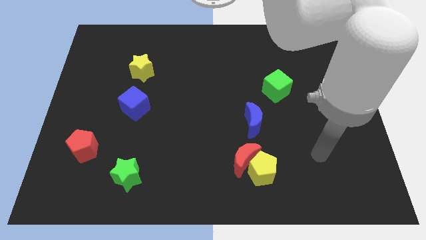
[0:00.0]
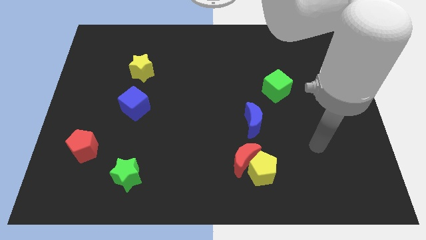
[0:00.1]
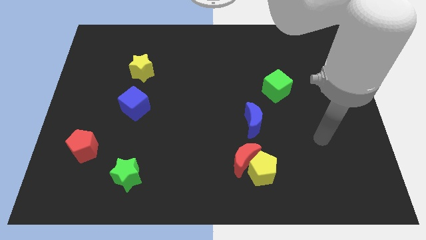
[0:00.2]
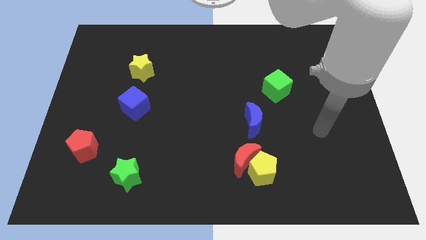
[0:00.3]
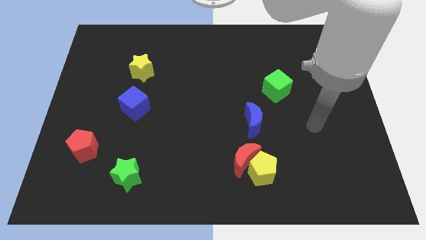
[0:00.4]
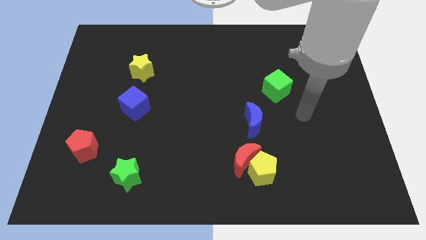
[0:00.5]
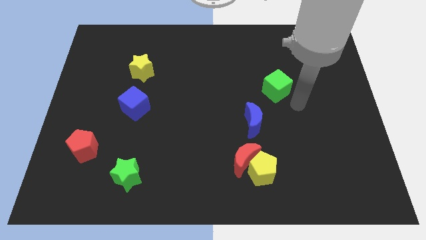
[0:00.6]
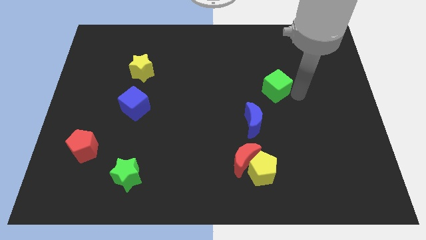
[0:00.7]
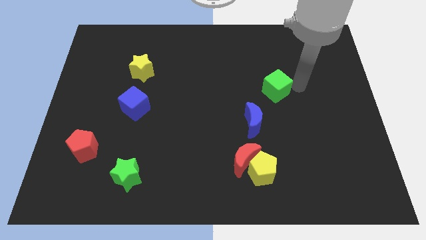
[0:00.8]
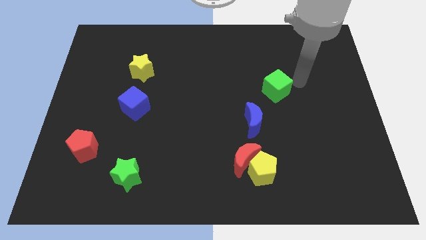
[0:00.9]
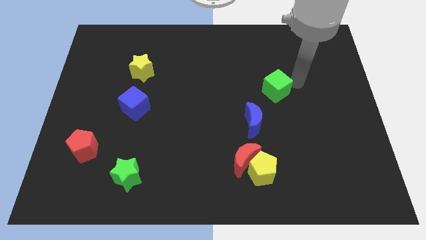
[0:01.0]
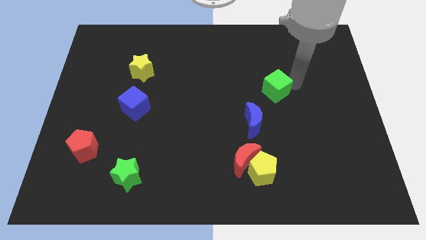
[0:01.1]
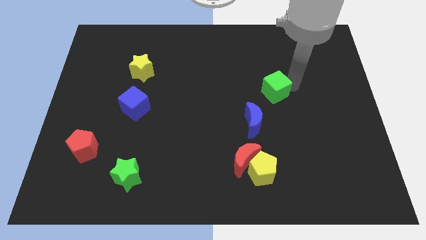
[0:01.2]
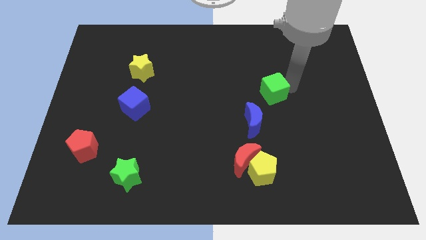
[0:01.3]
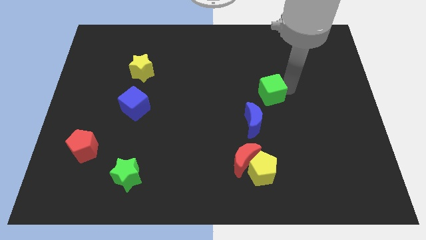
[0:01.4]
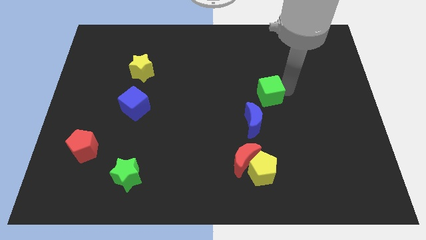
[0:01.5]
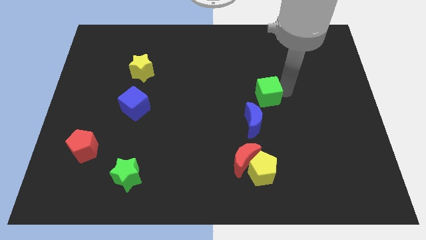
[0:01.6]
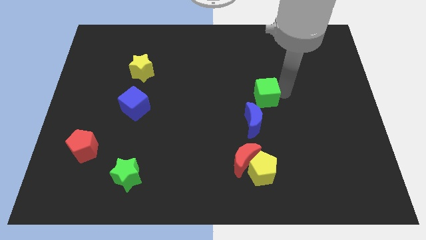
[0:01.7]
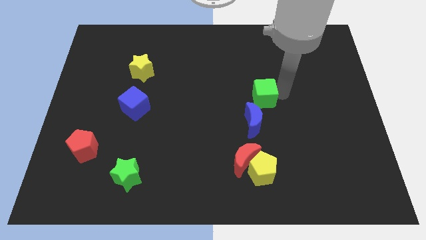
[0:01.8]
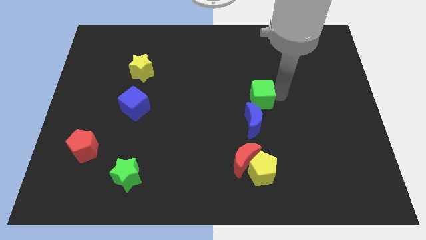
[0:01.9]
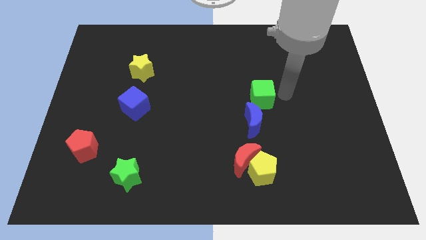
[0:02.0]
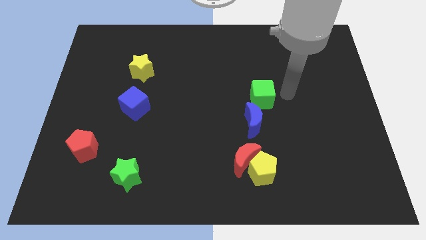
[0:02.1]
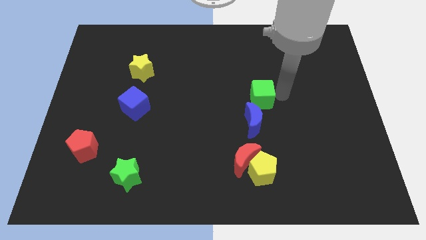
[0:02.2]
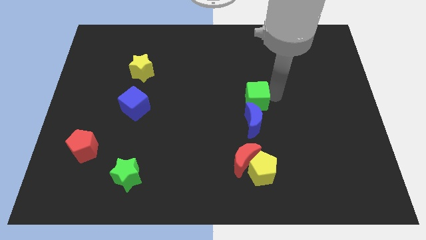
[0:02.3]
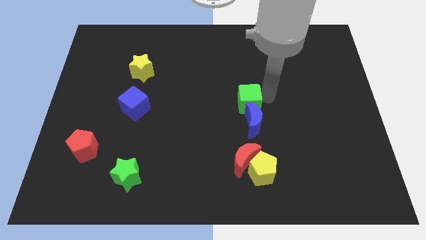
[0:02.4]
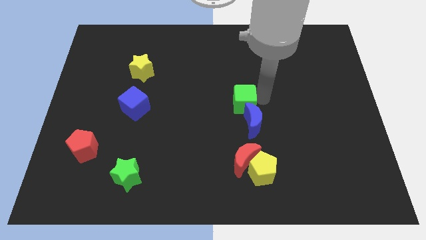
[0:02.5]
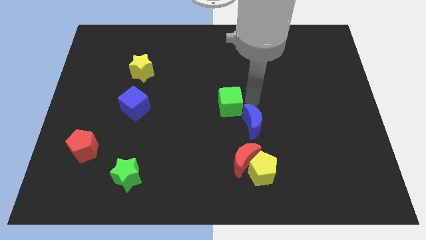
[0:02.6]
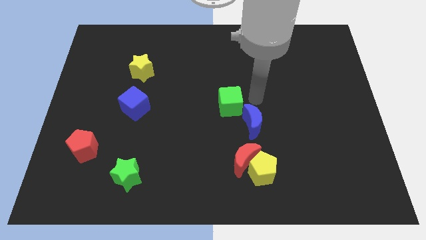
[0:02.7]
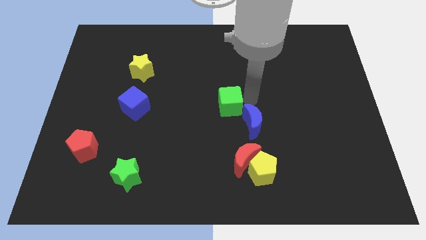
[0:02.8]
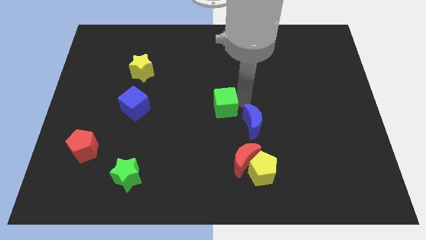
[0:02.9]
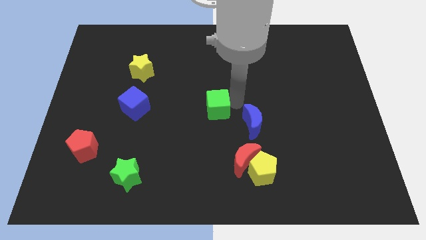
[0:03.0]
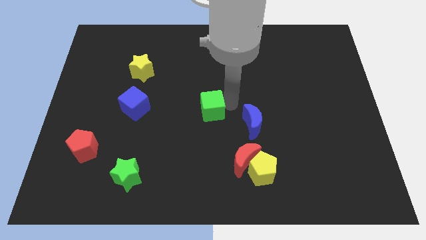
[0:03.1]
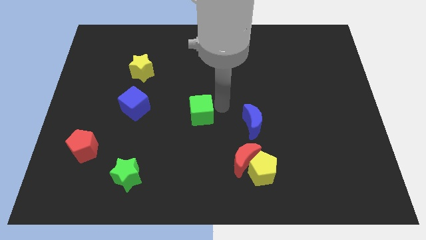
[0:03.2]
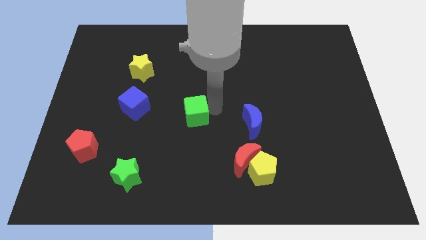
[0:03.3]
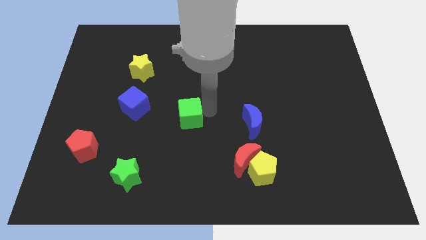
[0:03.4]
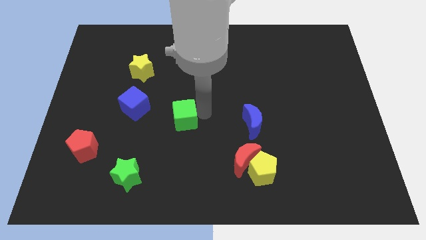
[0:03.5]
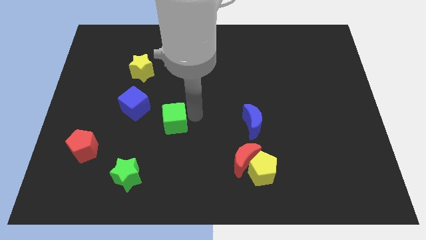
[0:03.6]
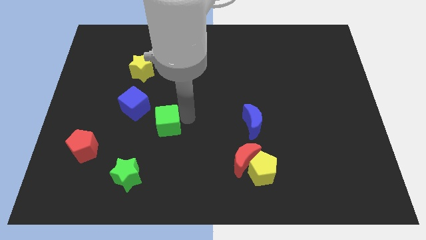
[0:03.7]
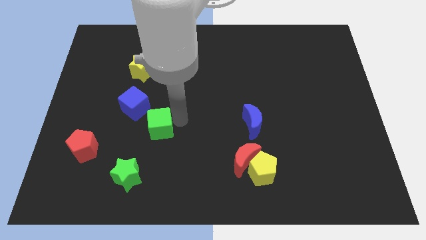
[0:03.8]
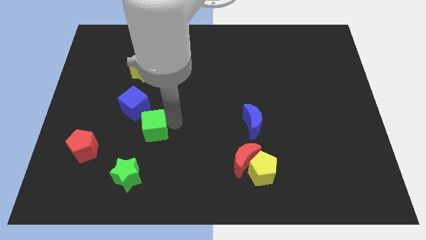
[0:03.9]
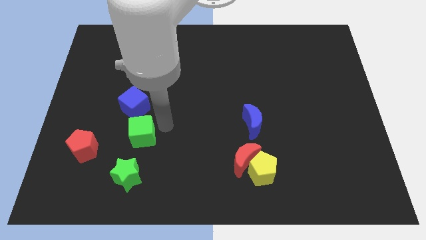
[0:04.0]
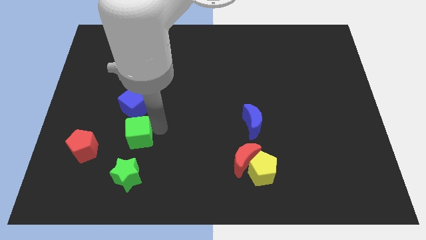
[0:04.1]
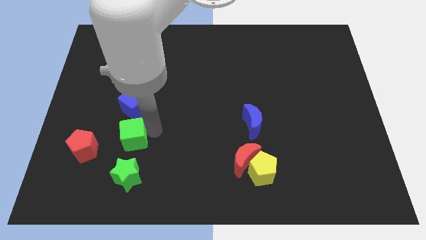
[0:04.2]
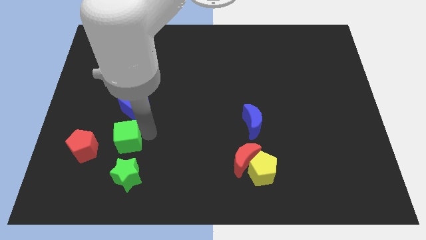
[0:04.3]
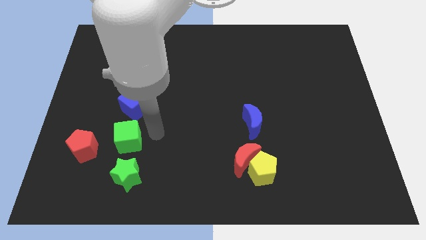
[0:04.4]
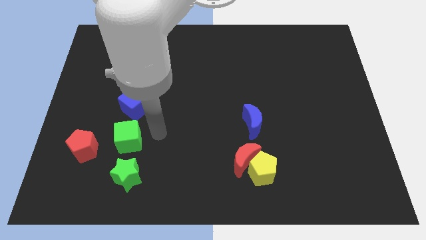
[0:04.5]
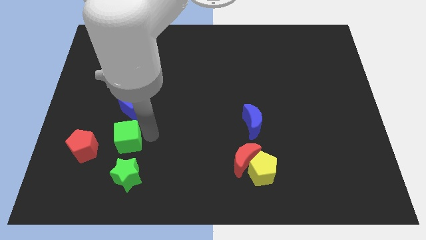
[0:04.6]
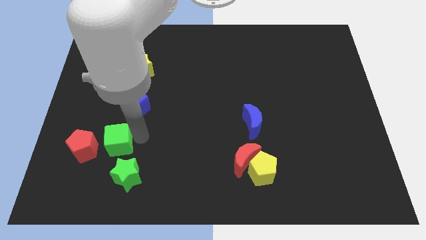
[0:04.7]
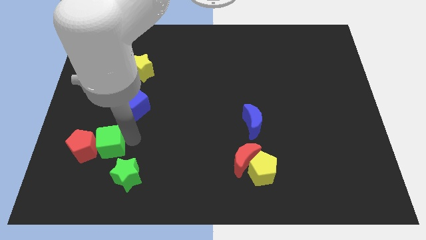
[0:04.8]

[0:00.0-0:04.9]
slide the green cube to the red pentagon

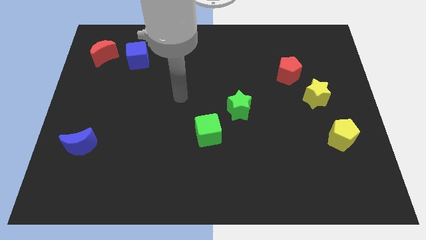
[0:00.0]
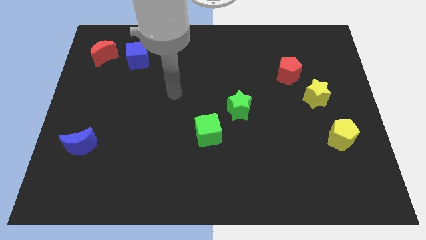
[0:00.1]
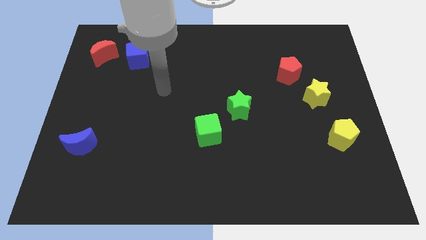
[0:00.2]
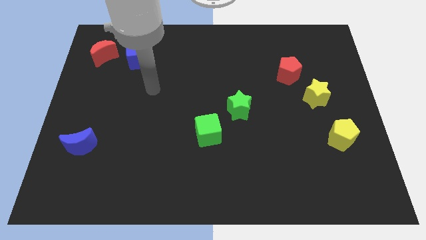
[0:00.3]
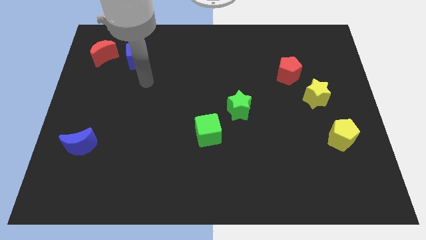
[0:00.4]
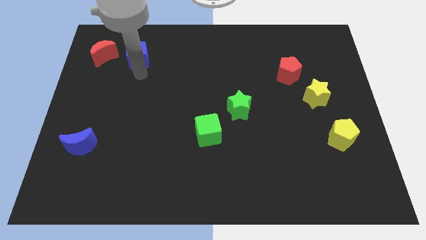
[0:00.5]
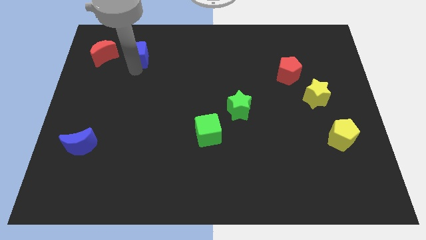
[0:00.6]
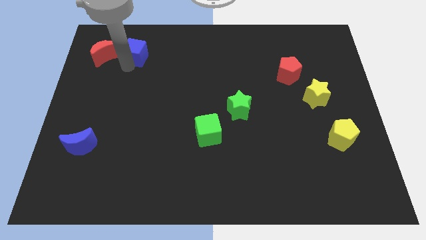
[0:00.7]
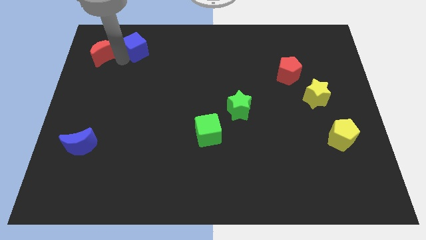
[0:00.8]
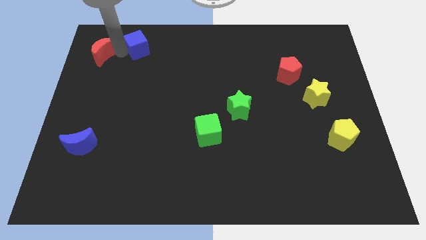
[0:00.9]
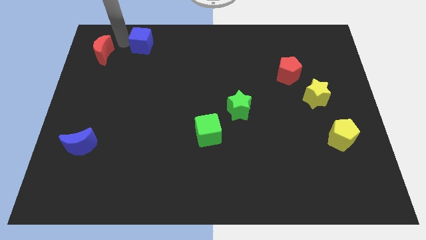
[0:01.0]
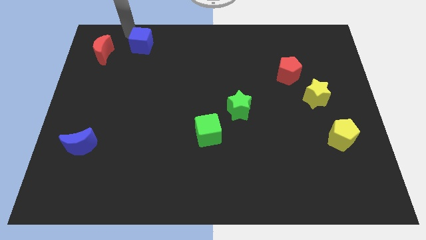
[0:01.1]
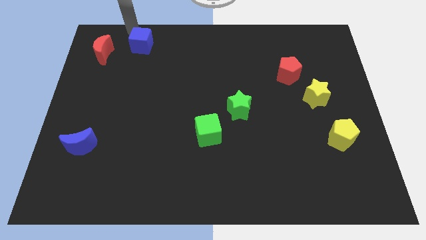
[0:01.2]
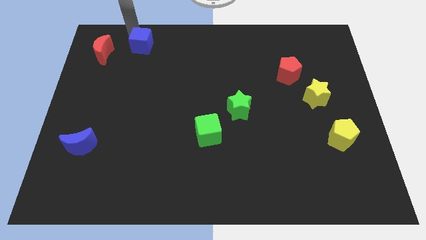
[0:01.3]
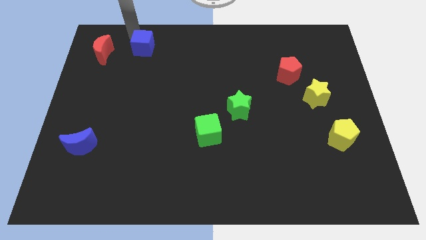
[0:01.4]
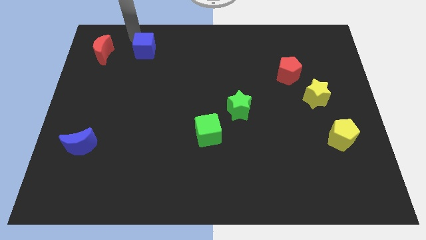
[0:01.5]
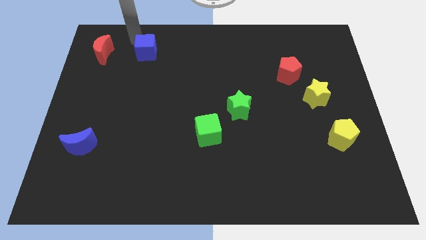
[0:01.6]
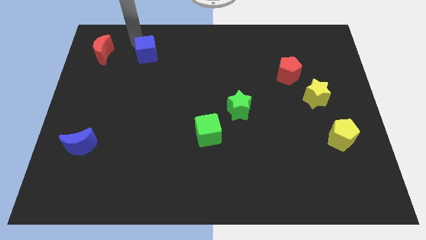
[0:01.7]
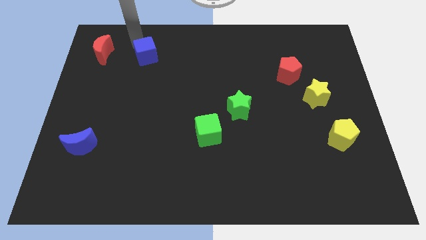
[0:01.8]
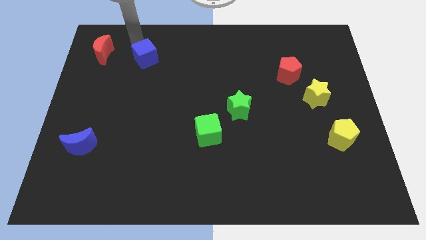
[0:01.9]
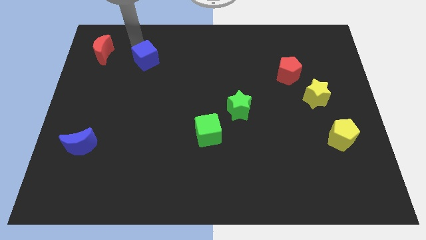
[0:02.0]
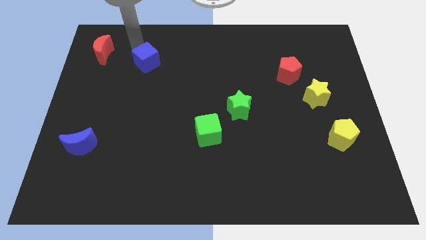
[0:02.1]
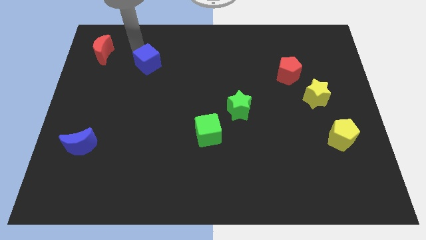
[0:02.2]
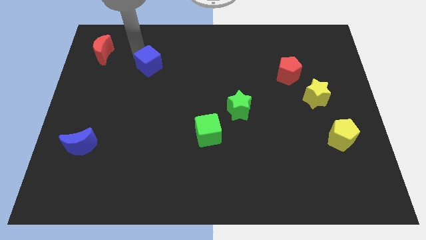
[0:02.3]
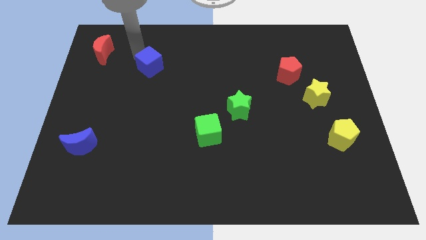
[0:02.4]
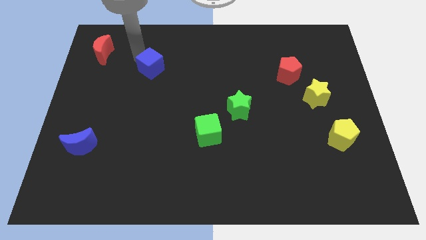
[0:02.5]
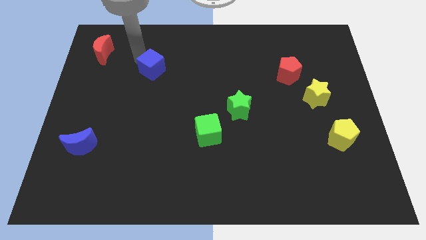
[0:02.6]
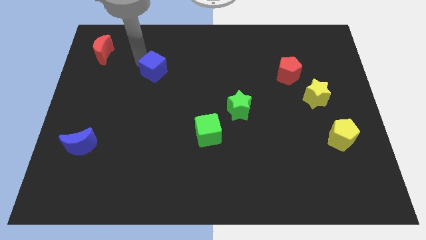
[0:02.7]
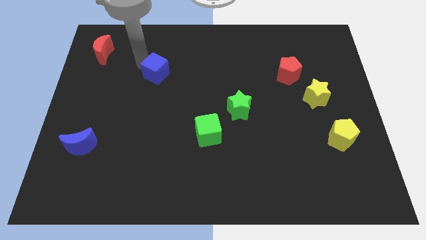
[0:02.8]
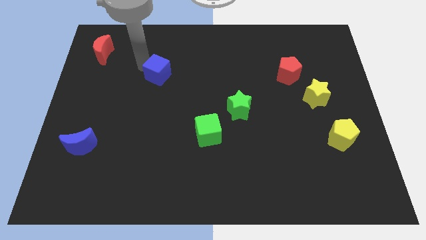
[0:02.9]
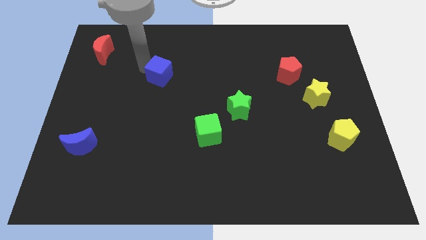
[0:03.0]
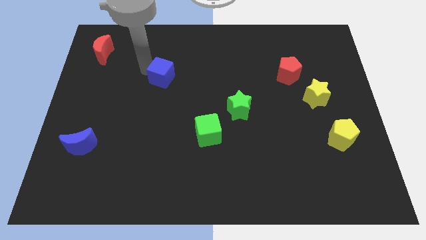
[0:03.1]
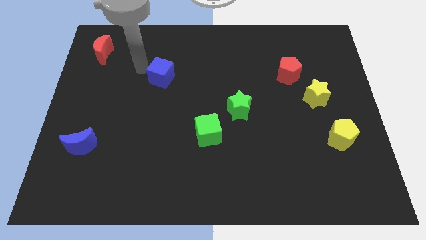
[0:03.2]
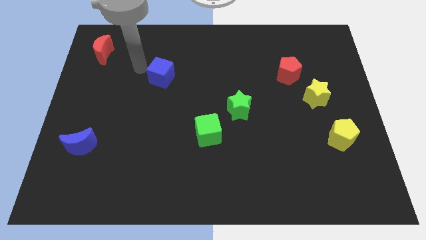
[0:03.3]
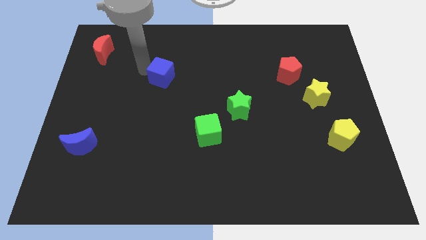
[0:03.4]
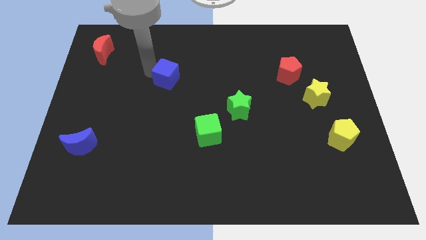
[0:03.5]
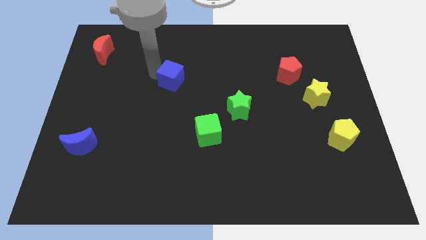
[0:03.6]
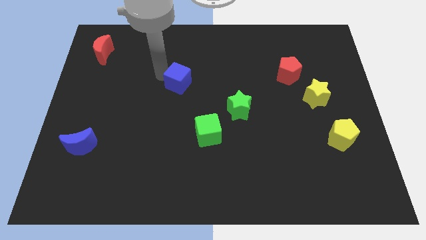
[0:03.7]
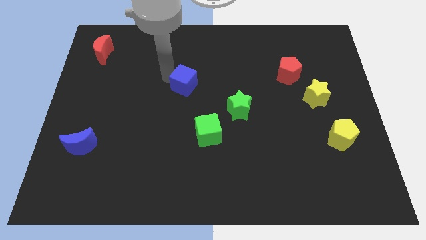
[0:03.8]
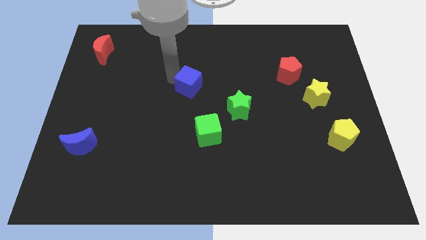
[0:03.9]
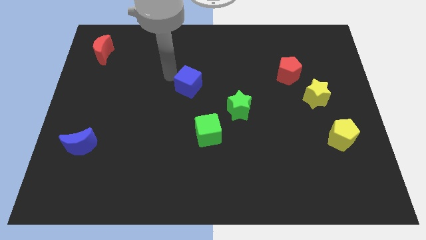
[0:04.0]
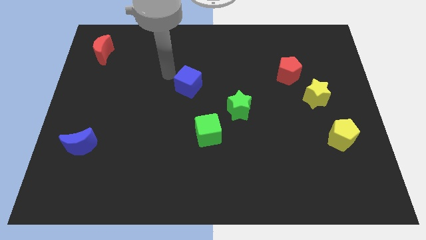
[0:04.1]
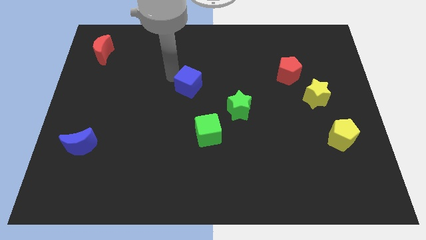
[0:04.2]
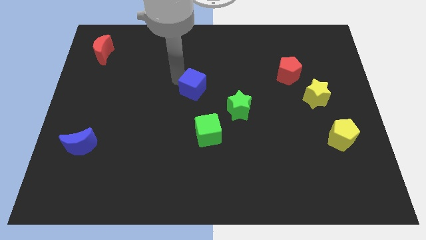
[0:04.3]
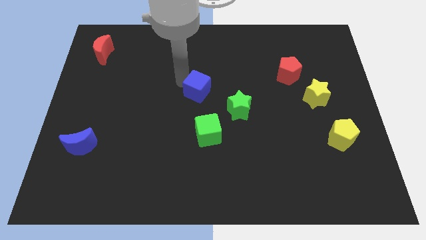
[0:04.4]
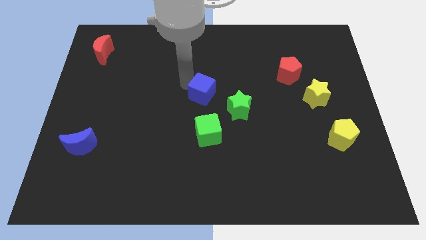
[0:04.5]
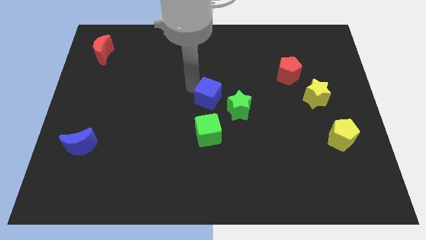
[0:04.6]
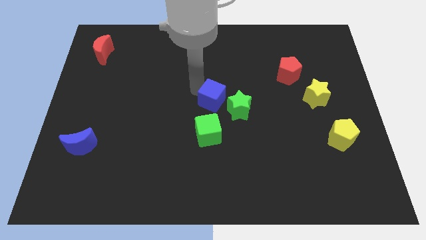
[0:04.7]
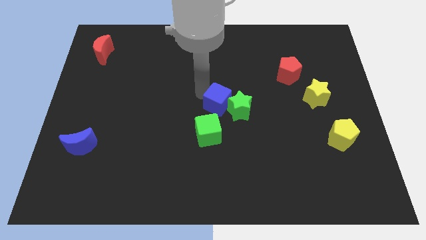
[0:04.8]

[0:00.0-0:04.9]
put the blue cube towards the green star
